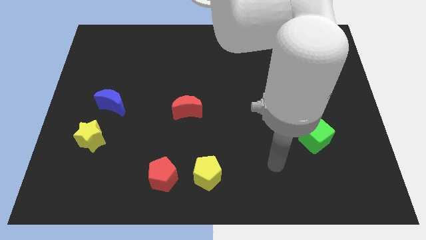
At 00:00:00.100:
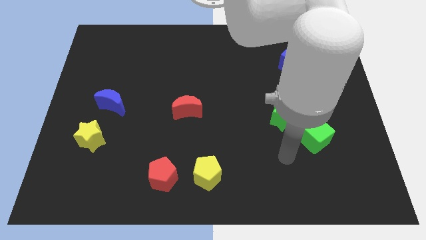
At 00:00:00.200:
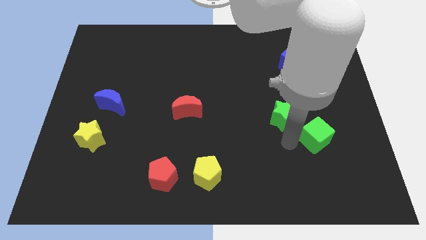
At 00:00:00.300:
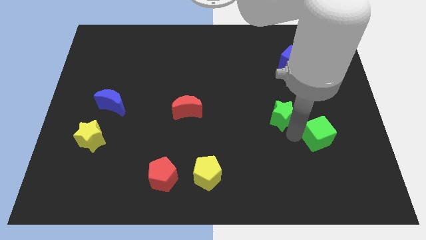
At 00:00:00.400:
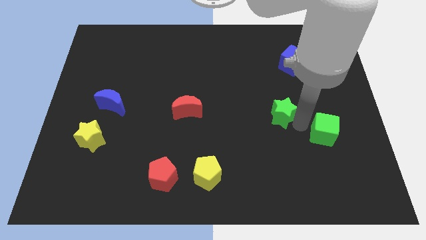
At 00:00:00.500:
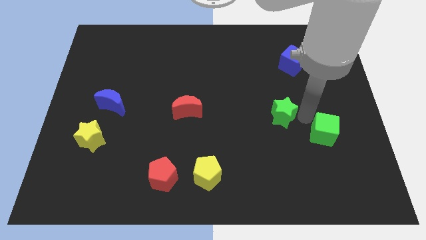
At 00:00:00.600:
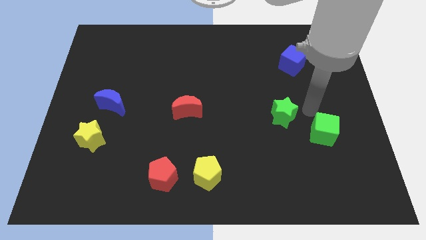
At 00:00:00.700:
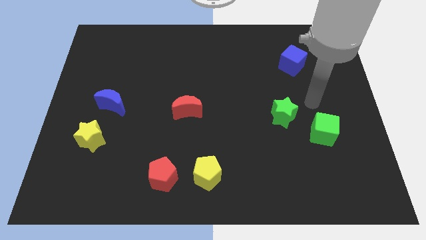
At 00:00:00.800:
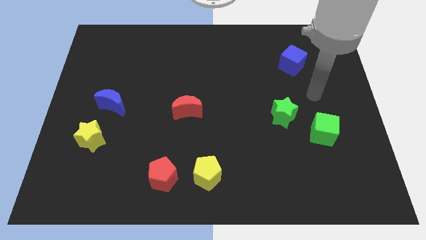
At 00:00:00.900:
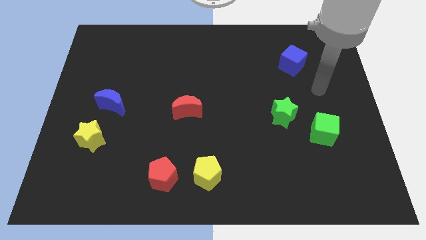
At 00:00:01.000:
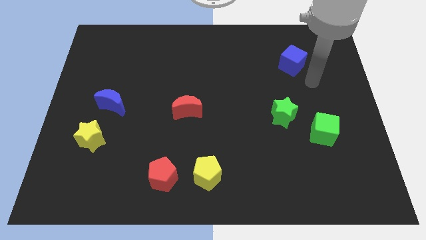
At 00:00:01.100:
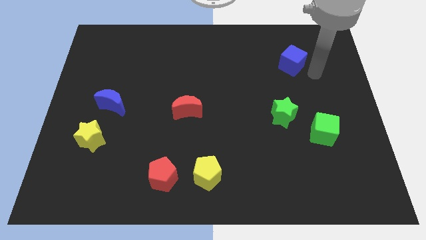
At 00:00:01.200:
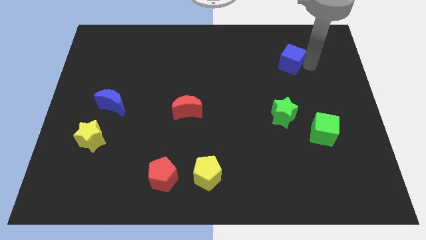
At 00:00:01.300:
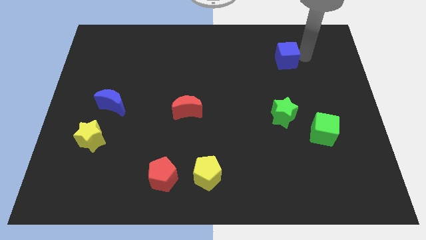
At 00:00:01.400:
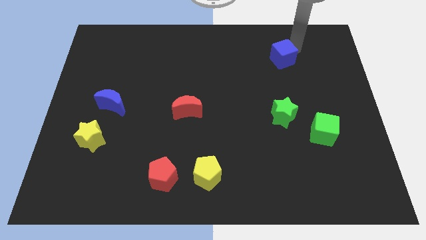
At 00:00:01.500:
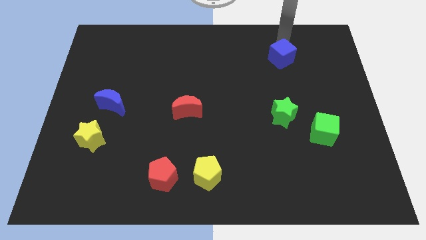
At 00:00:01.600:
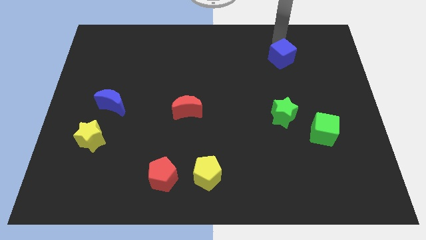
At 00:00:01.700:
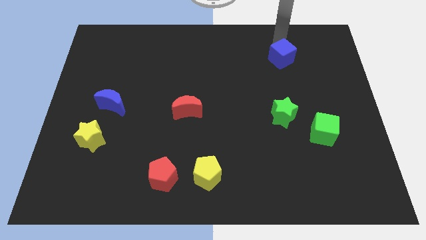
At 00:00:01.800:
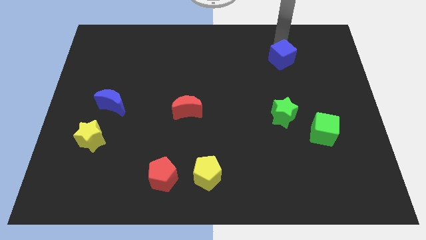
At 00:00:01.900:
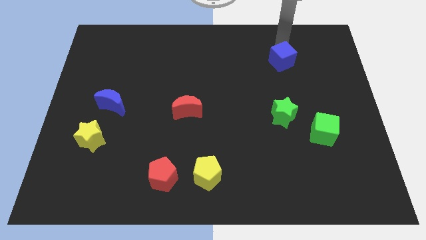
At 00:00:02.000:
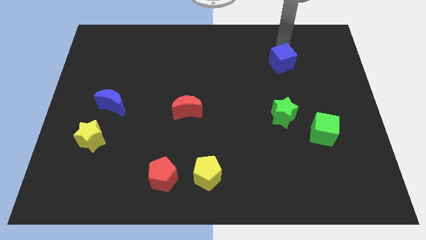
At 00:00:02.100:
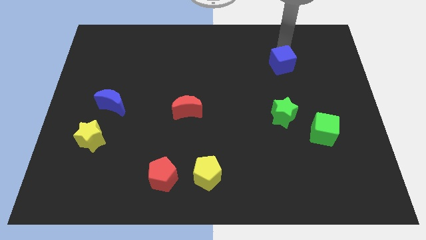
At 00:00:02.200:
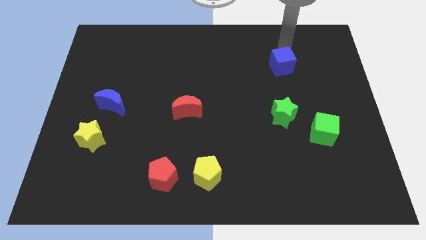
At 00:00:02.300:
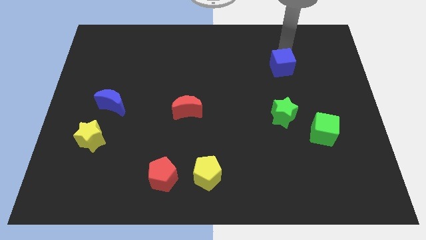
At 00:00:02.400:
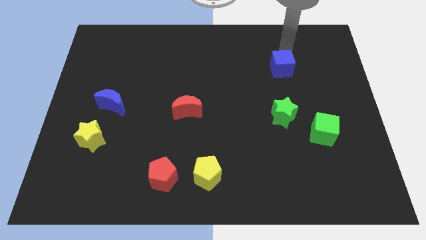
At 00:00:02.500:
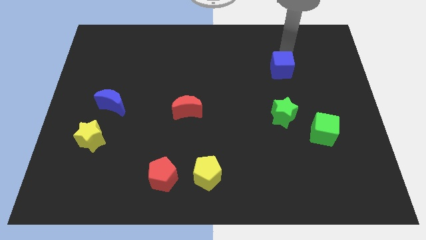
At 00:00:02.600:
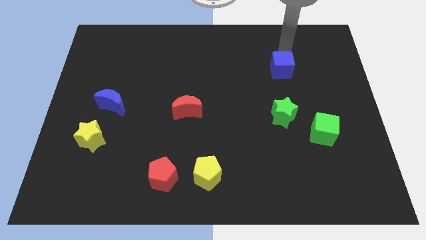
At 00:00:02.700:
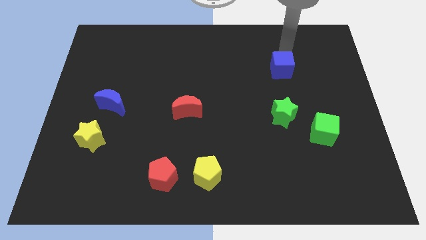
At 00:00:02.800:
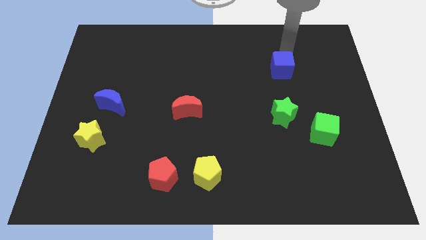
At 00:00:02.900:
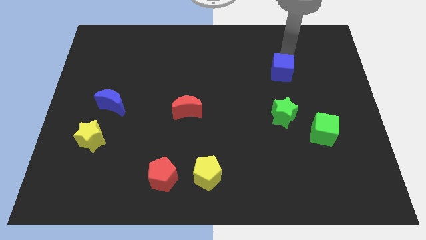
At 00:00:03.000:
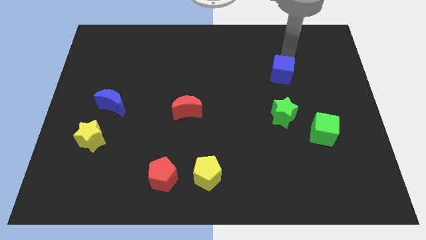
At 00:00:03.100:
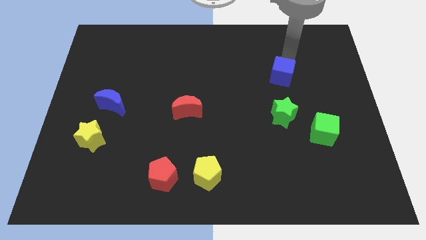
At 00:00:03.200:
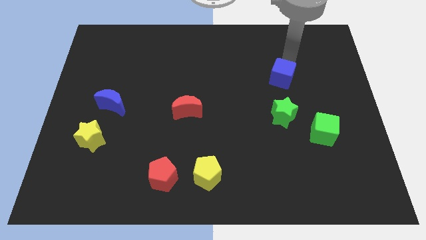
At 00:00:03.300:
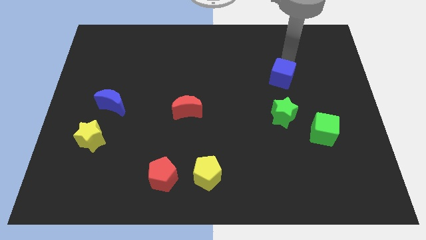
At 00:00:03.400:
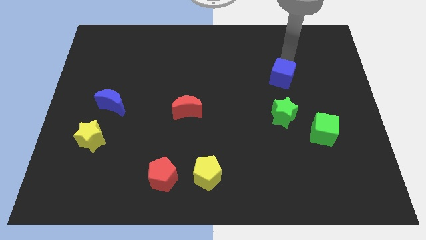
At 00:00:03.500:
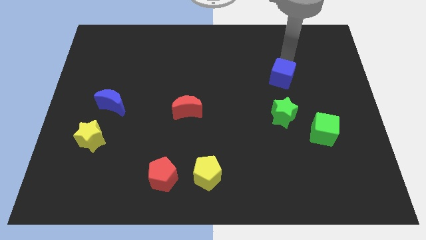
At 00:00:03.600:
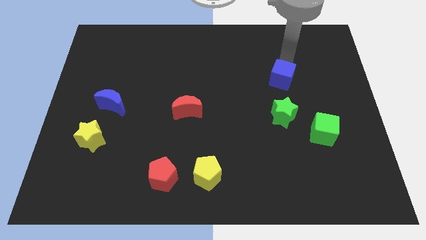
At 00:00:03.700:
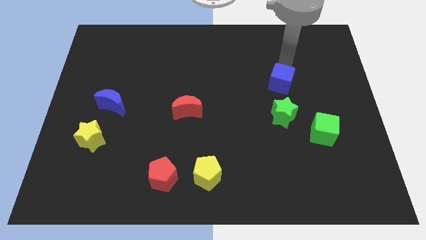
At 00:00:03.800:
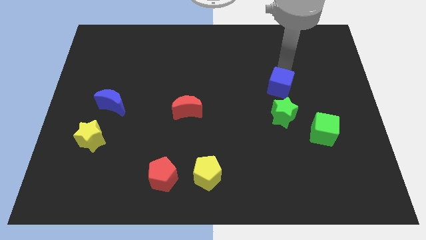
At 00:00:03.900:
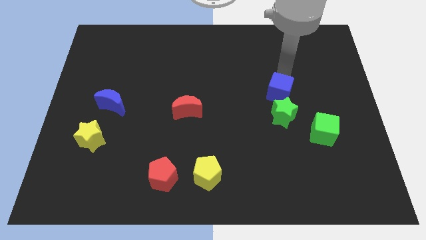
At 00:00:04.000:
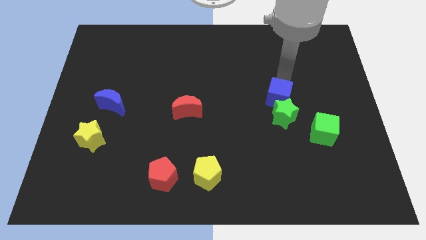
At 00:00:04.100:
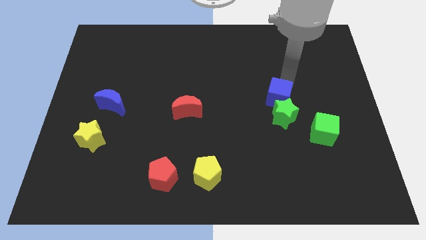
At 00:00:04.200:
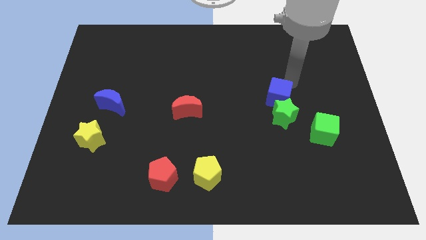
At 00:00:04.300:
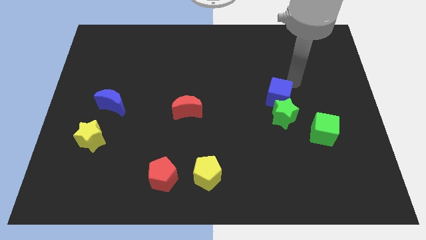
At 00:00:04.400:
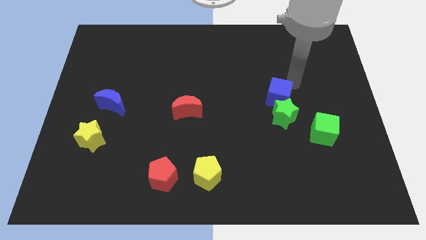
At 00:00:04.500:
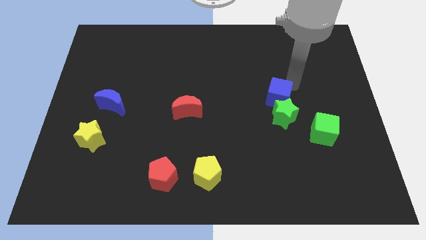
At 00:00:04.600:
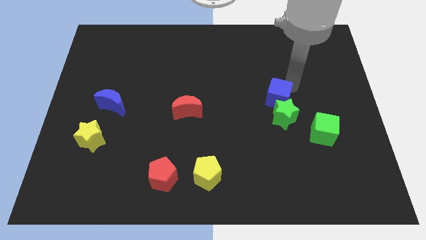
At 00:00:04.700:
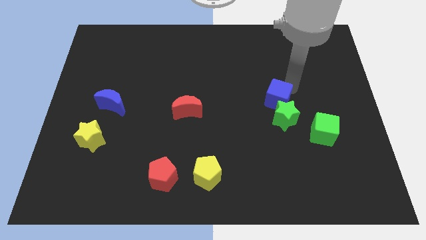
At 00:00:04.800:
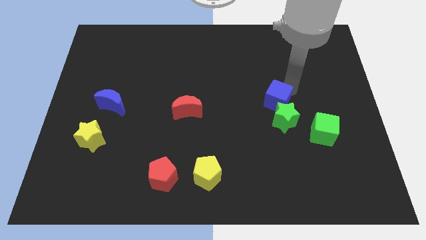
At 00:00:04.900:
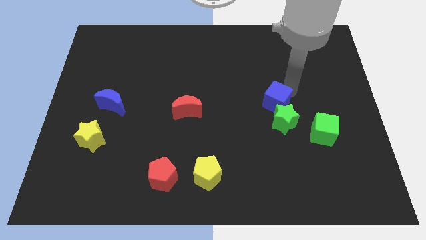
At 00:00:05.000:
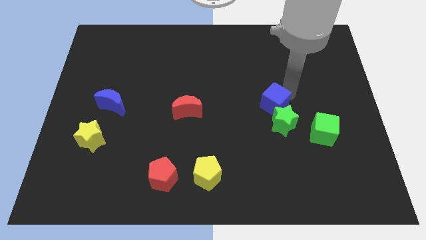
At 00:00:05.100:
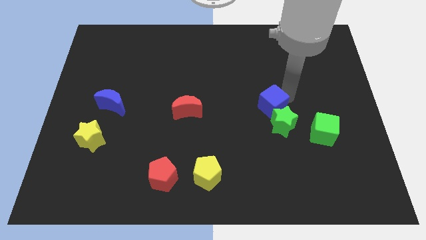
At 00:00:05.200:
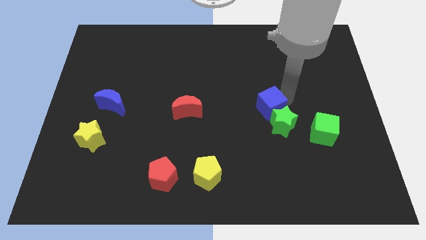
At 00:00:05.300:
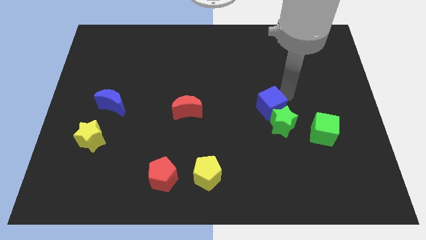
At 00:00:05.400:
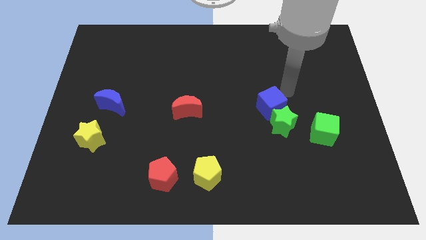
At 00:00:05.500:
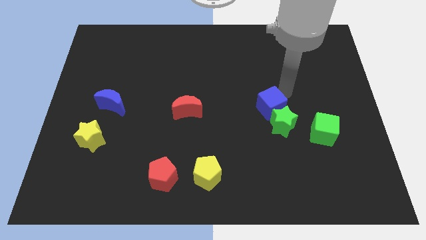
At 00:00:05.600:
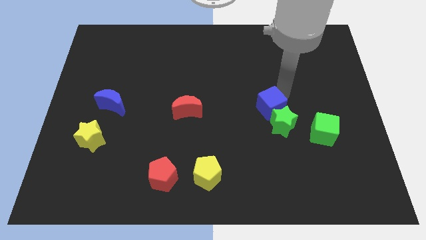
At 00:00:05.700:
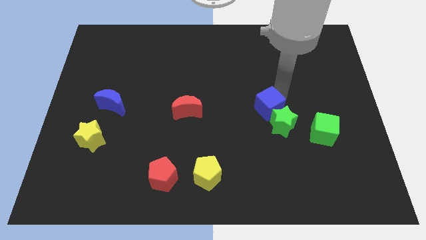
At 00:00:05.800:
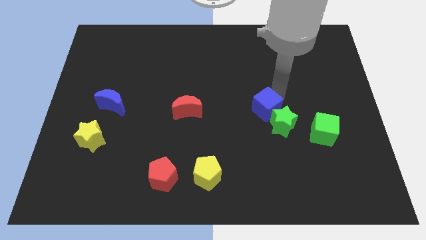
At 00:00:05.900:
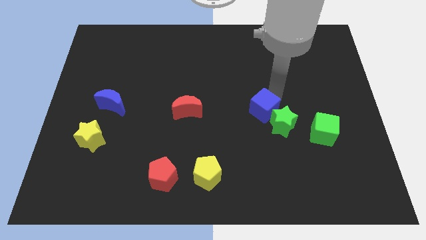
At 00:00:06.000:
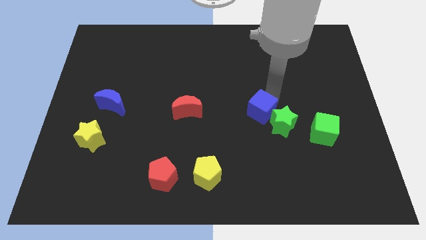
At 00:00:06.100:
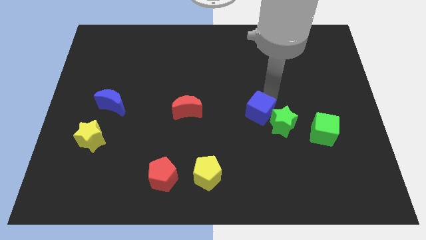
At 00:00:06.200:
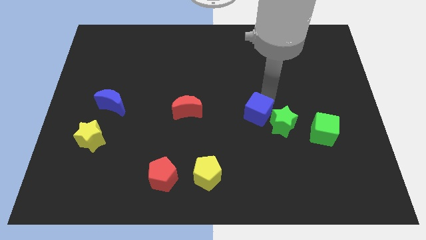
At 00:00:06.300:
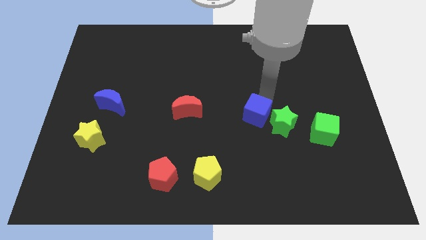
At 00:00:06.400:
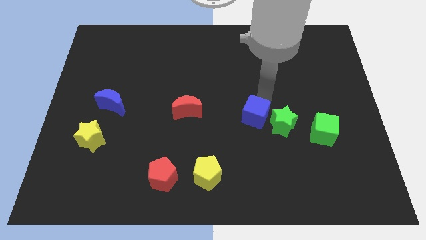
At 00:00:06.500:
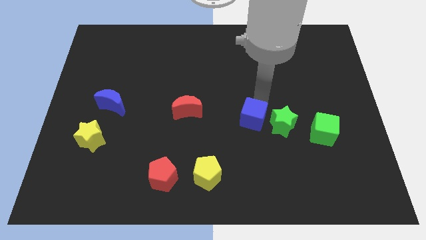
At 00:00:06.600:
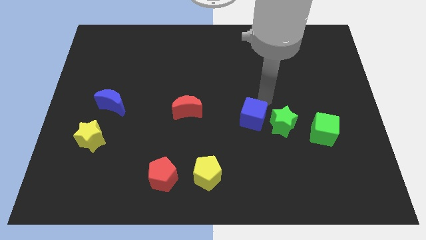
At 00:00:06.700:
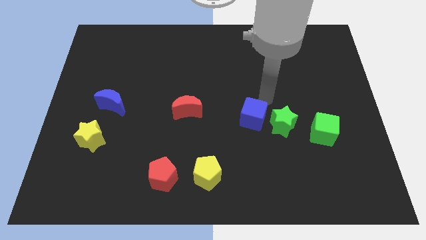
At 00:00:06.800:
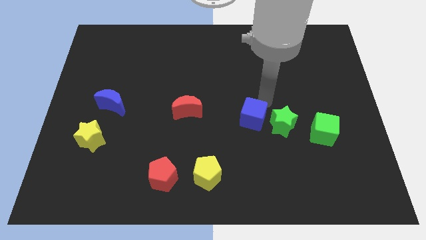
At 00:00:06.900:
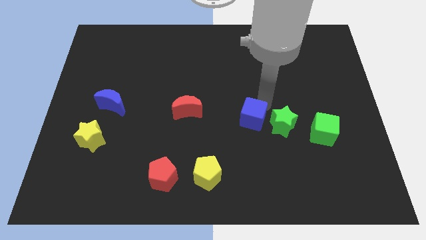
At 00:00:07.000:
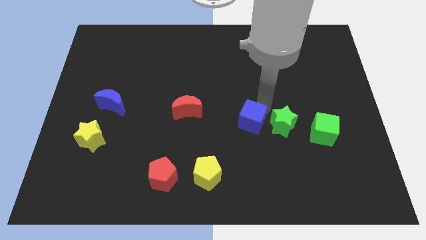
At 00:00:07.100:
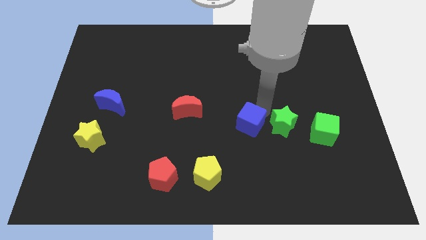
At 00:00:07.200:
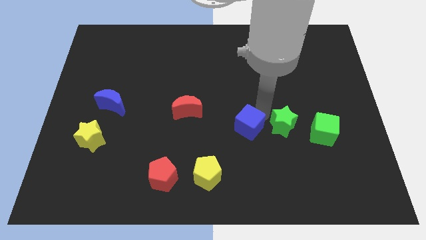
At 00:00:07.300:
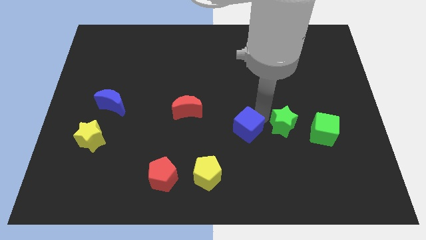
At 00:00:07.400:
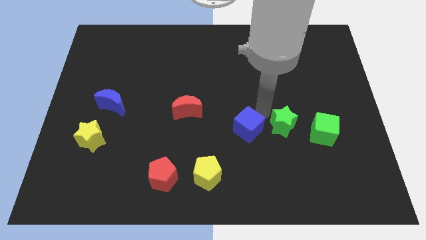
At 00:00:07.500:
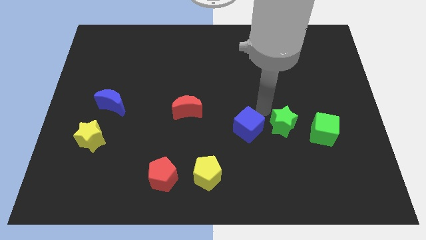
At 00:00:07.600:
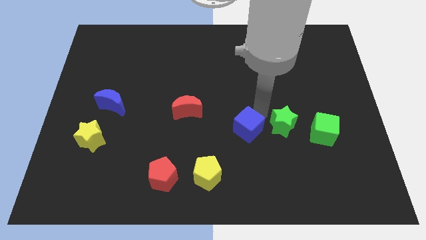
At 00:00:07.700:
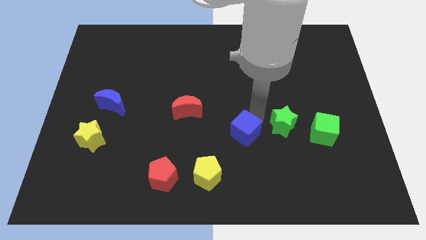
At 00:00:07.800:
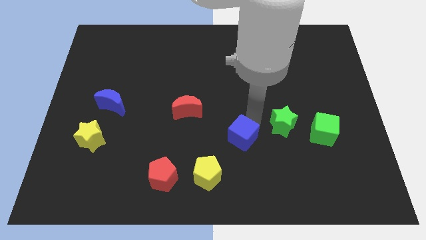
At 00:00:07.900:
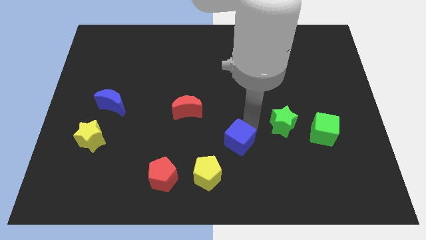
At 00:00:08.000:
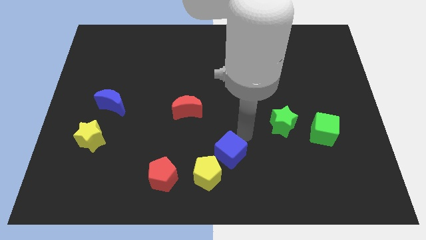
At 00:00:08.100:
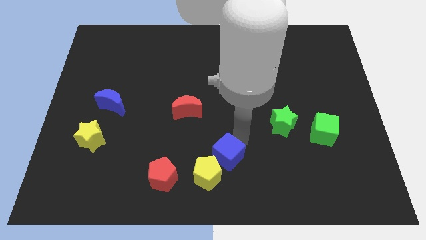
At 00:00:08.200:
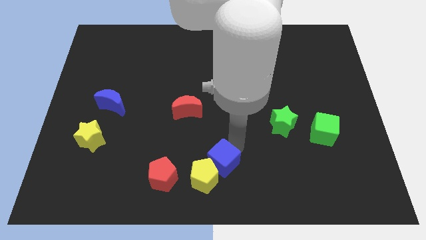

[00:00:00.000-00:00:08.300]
push the blue cube to the yellow pentagon
